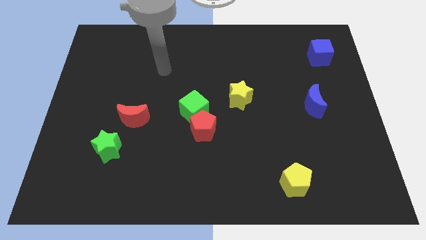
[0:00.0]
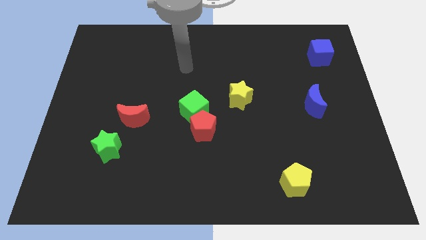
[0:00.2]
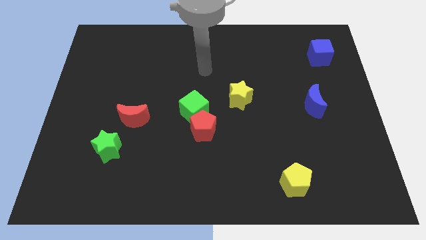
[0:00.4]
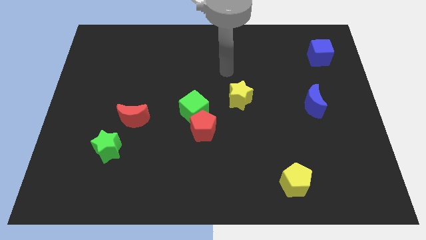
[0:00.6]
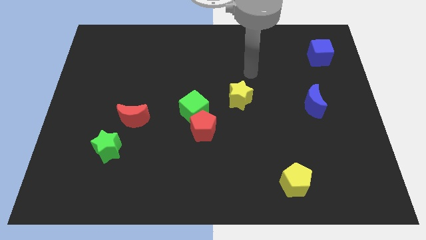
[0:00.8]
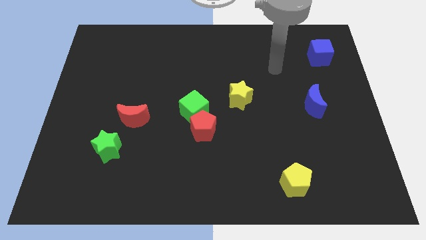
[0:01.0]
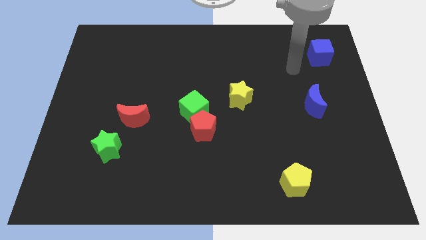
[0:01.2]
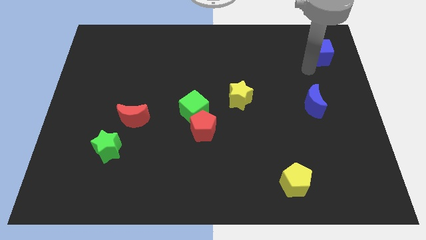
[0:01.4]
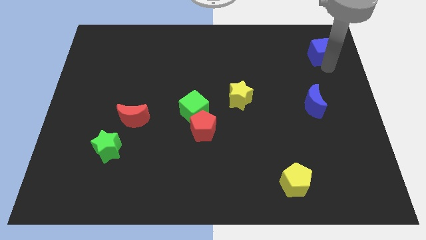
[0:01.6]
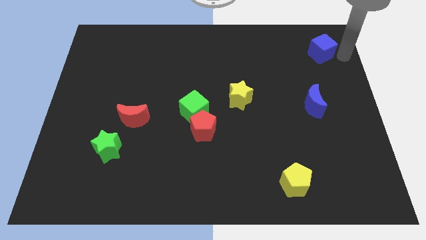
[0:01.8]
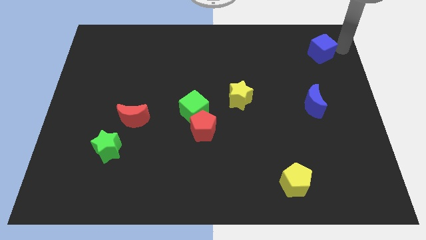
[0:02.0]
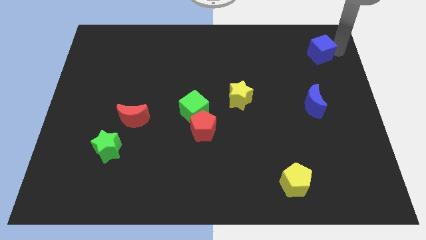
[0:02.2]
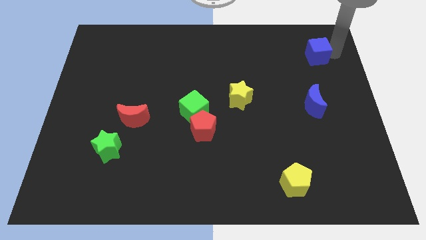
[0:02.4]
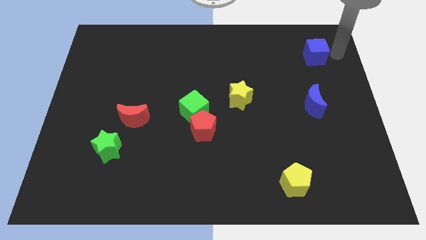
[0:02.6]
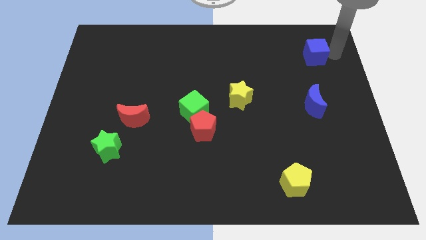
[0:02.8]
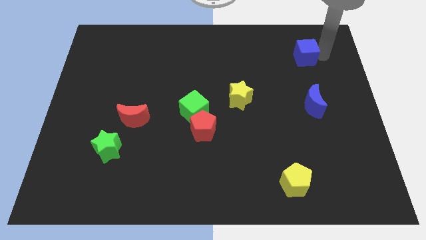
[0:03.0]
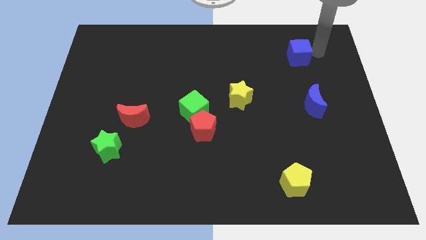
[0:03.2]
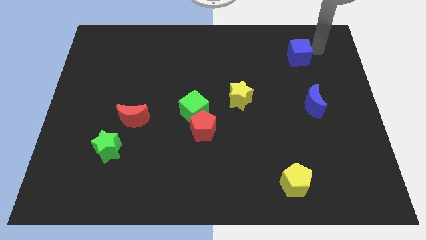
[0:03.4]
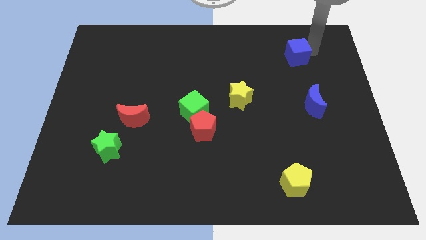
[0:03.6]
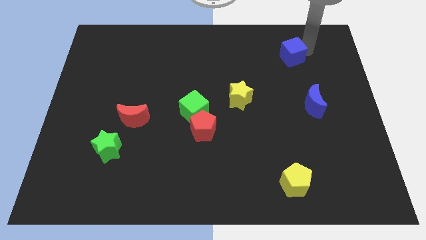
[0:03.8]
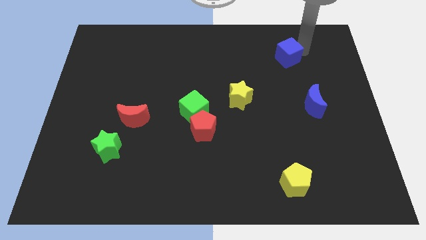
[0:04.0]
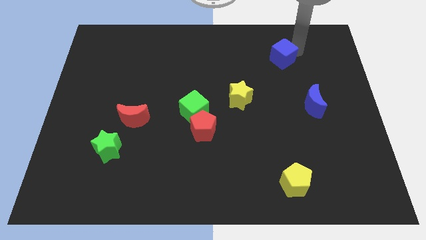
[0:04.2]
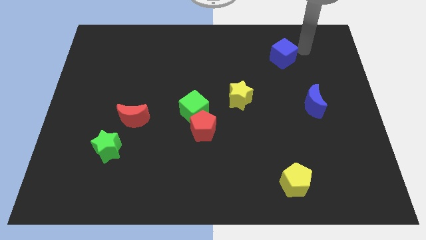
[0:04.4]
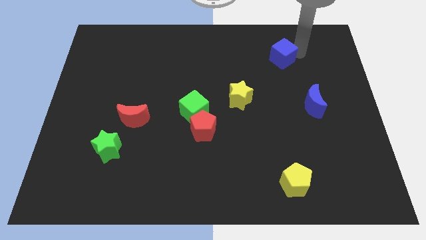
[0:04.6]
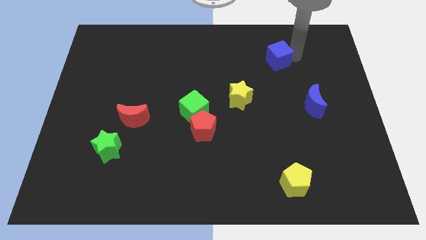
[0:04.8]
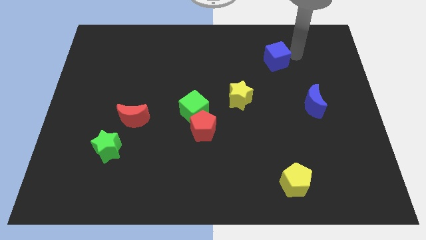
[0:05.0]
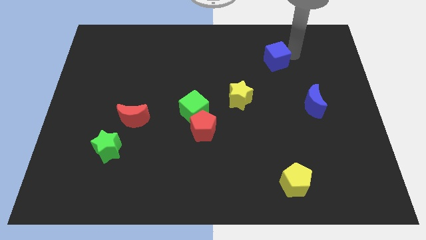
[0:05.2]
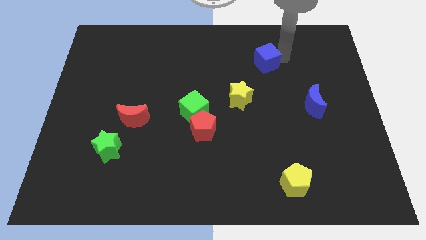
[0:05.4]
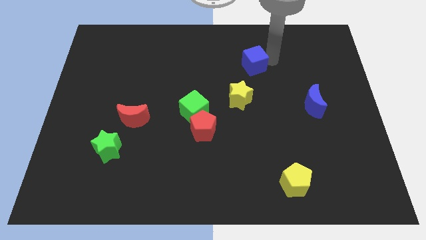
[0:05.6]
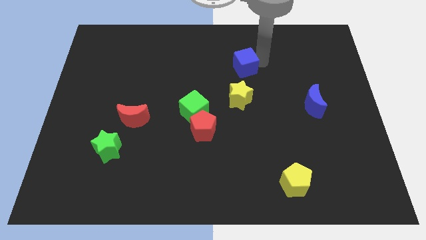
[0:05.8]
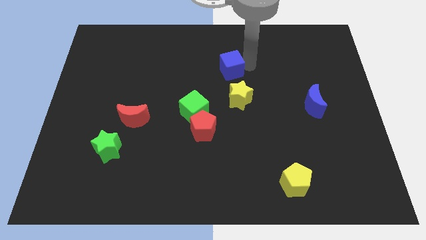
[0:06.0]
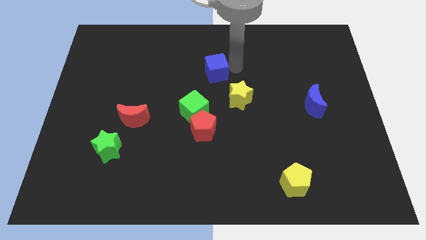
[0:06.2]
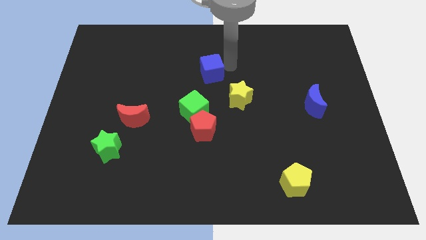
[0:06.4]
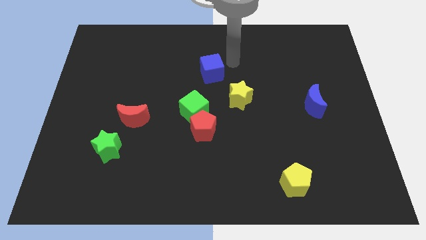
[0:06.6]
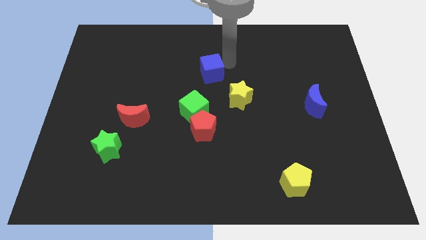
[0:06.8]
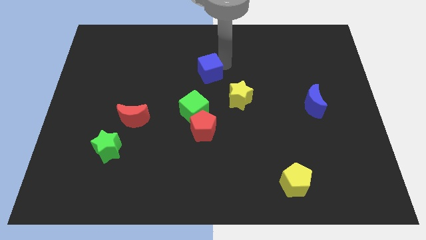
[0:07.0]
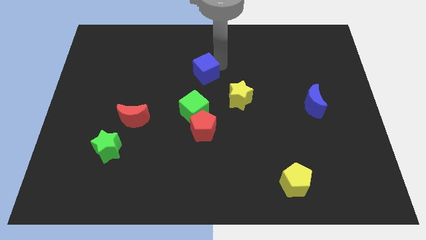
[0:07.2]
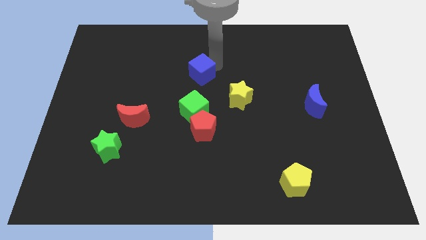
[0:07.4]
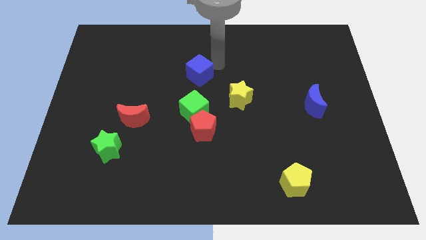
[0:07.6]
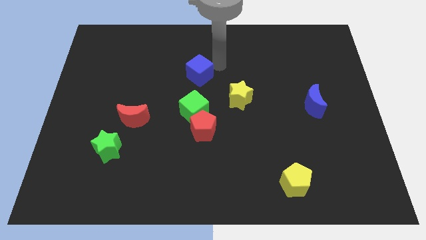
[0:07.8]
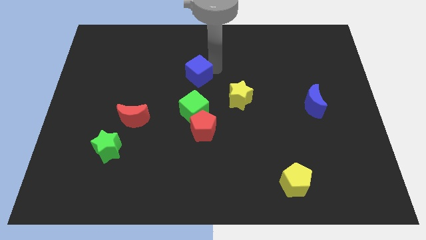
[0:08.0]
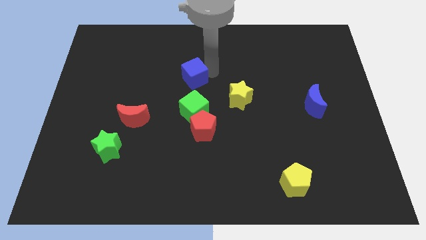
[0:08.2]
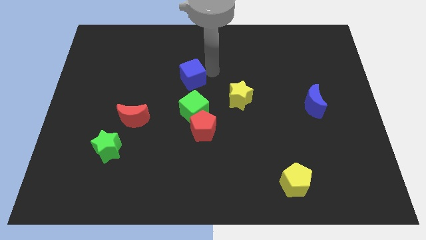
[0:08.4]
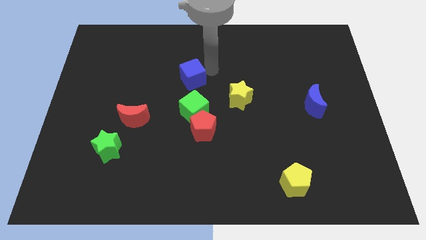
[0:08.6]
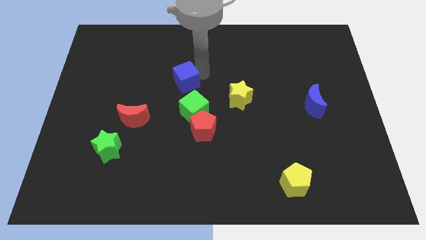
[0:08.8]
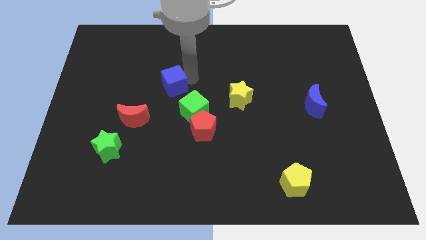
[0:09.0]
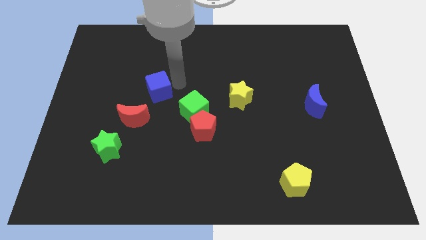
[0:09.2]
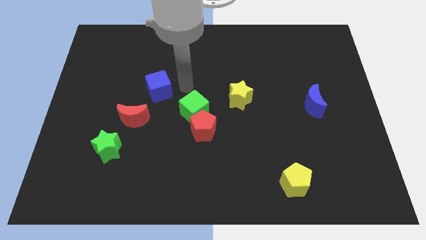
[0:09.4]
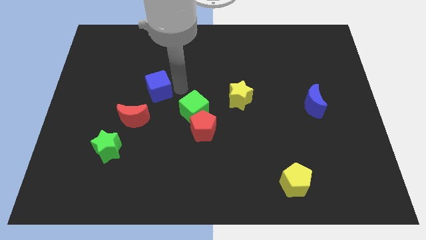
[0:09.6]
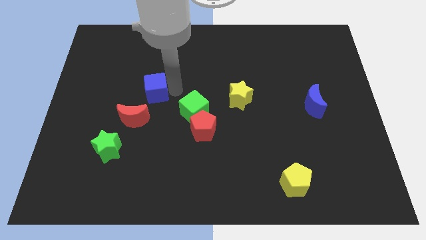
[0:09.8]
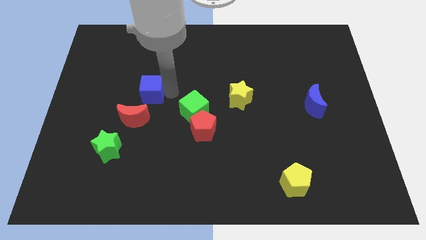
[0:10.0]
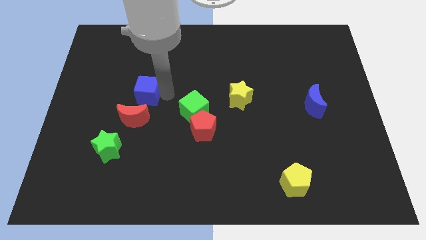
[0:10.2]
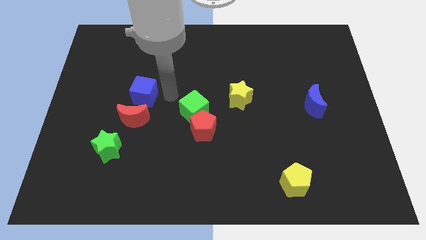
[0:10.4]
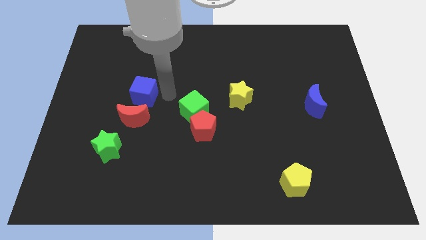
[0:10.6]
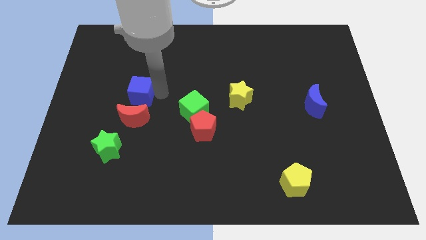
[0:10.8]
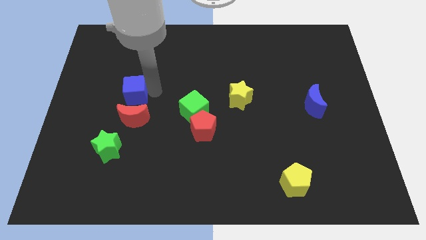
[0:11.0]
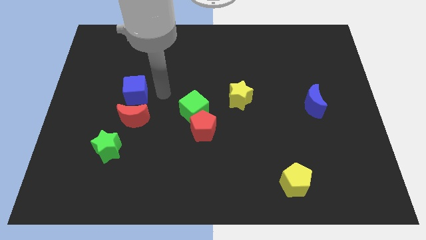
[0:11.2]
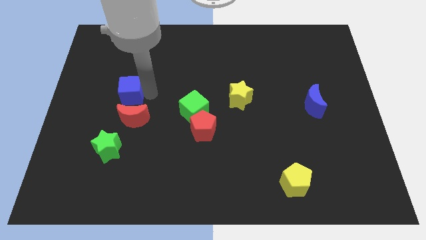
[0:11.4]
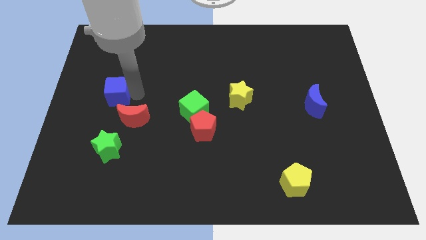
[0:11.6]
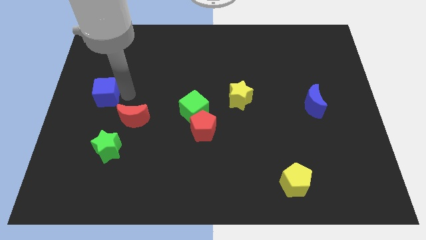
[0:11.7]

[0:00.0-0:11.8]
push the blue cube to the left side of the board

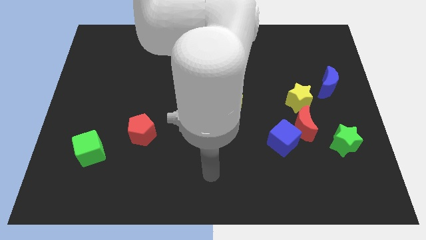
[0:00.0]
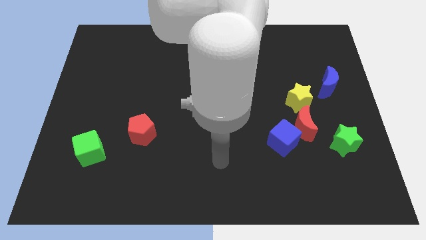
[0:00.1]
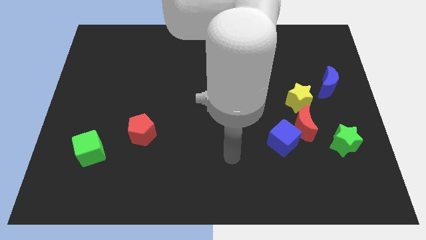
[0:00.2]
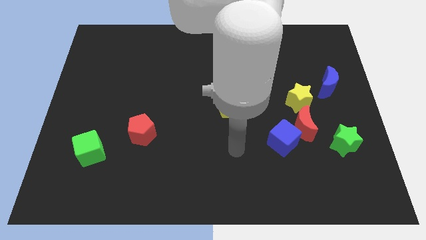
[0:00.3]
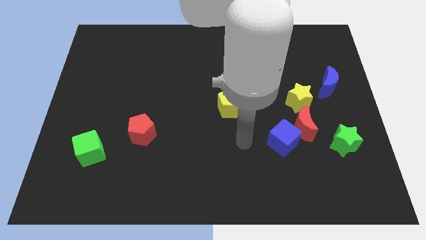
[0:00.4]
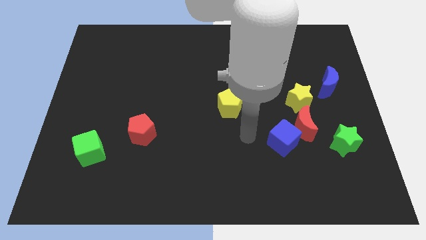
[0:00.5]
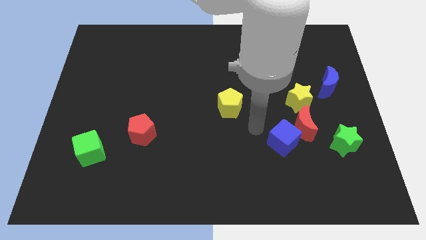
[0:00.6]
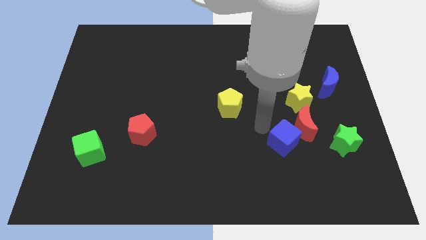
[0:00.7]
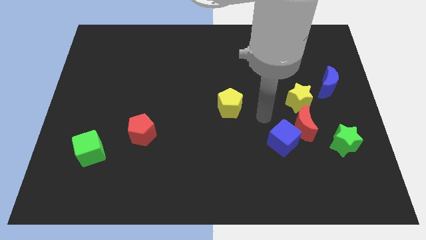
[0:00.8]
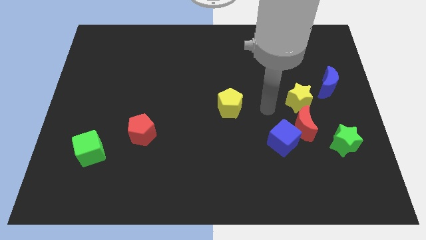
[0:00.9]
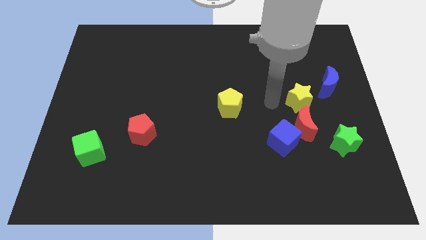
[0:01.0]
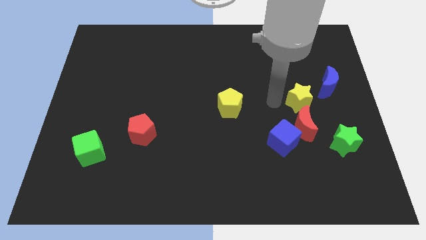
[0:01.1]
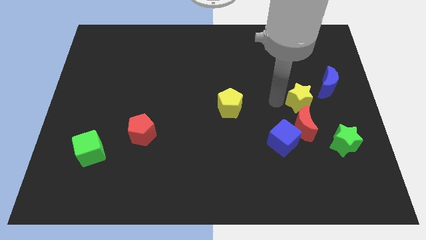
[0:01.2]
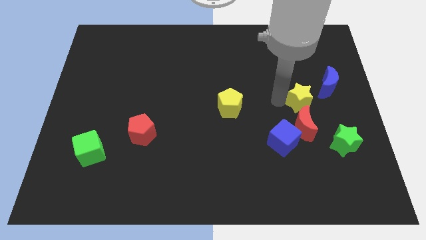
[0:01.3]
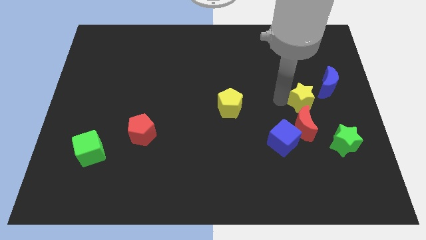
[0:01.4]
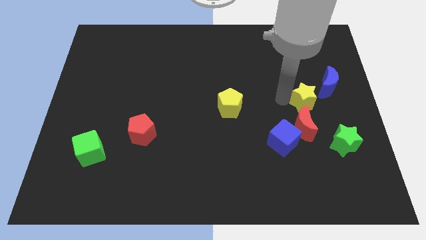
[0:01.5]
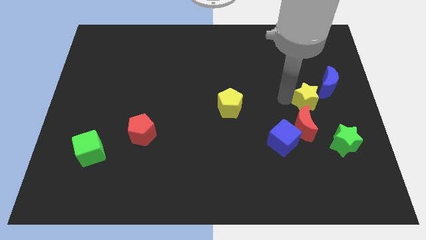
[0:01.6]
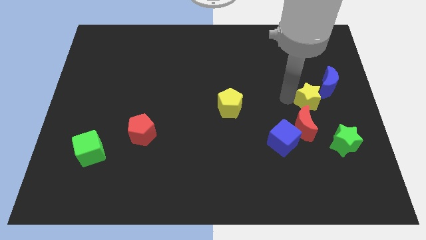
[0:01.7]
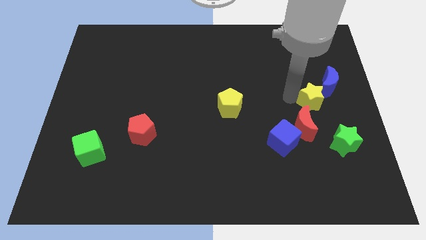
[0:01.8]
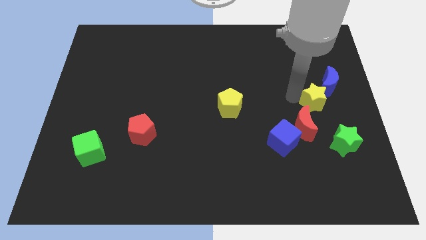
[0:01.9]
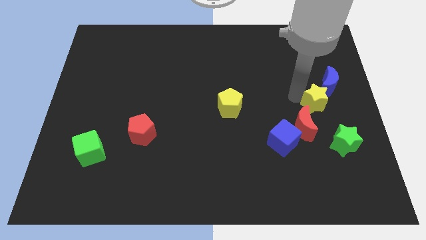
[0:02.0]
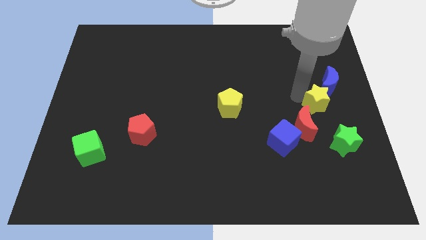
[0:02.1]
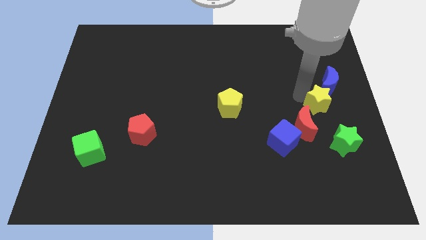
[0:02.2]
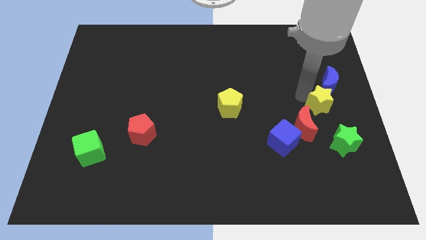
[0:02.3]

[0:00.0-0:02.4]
move the yellow star to the right side
